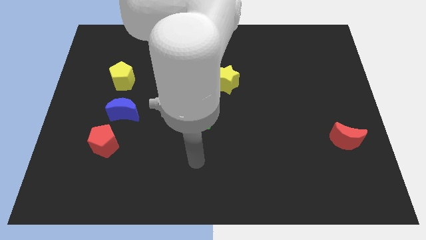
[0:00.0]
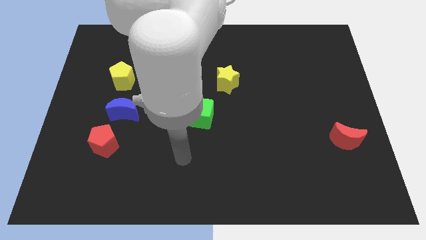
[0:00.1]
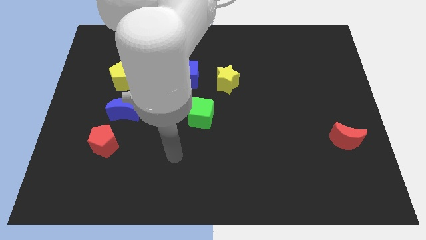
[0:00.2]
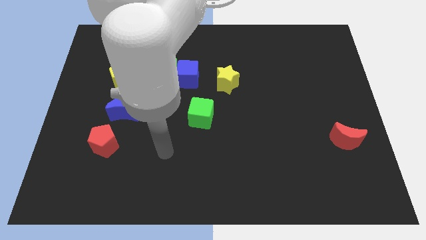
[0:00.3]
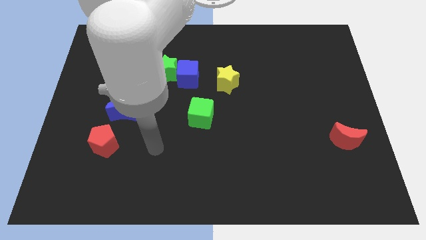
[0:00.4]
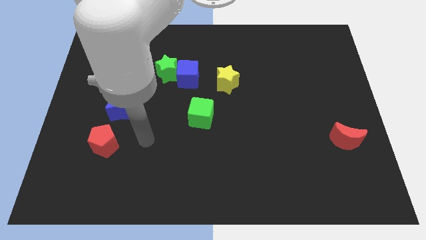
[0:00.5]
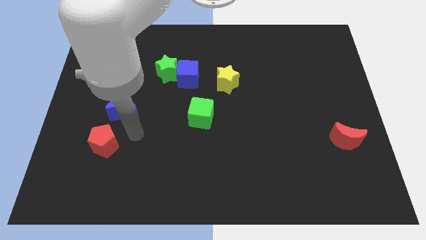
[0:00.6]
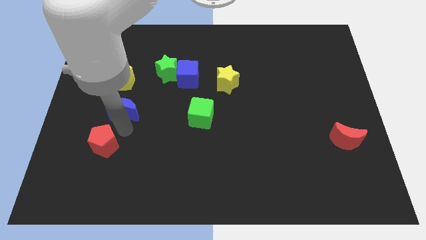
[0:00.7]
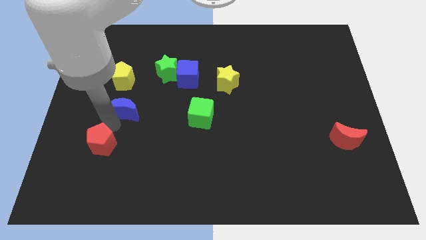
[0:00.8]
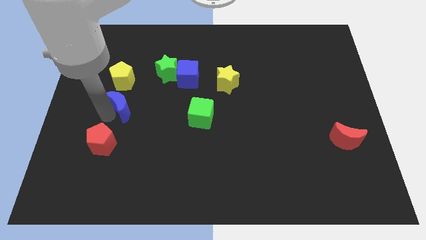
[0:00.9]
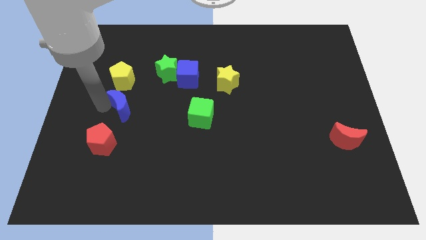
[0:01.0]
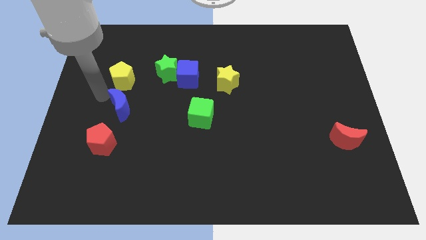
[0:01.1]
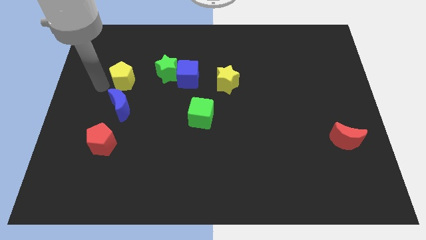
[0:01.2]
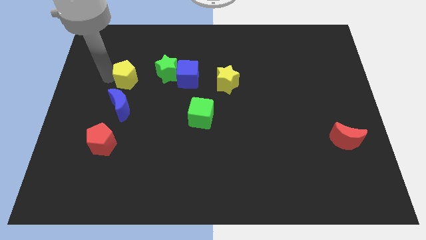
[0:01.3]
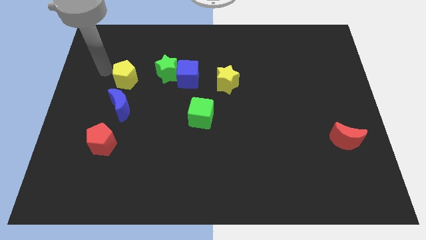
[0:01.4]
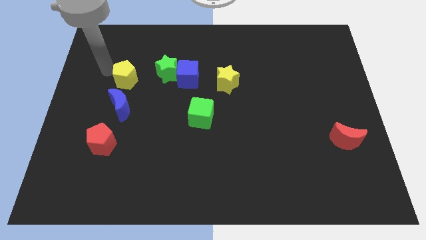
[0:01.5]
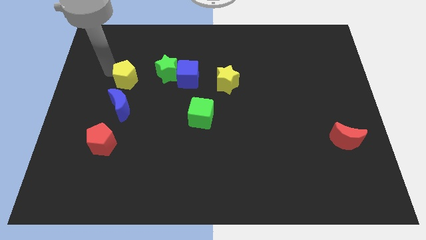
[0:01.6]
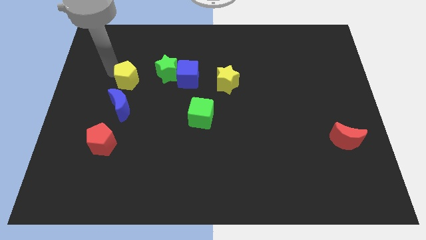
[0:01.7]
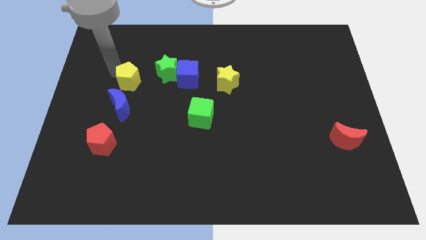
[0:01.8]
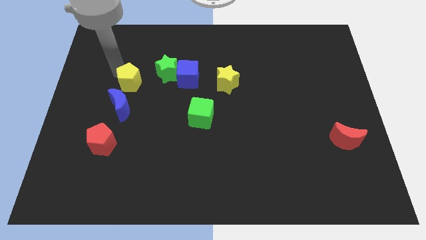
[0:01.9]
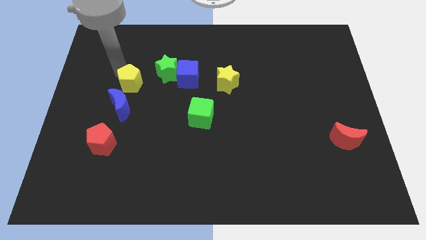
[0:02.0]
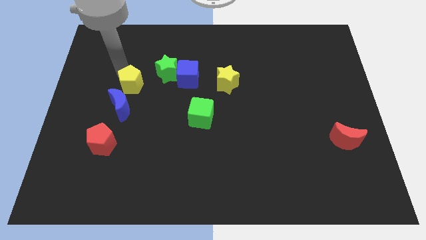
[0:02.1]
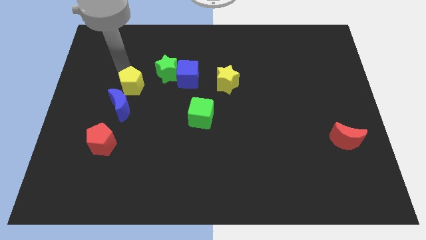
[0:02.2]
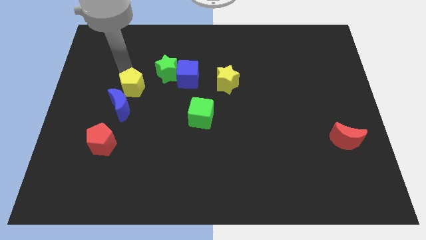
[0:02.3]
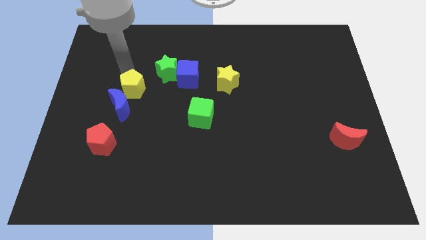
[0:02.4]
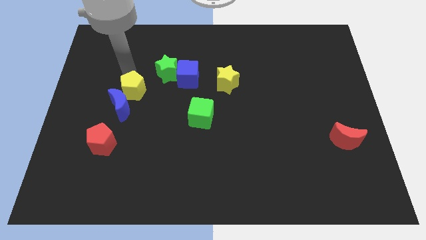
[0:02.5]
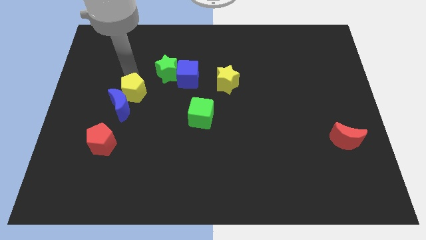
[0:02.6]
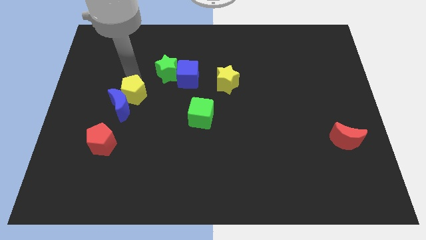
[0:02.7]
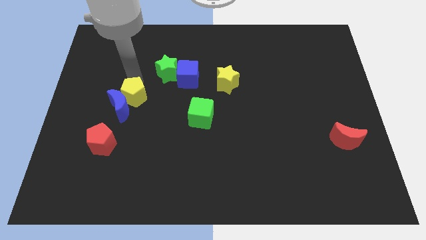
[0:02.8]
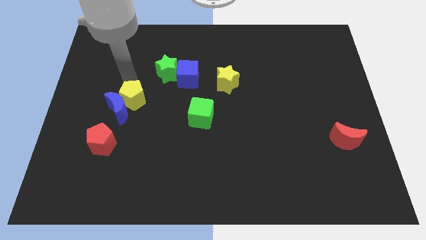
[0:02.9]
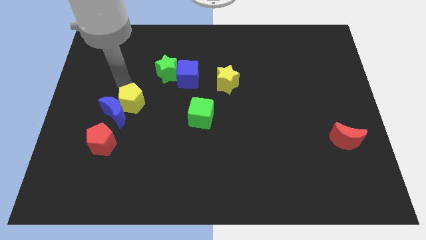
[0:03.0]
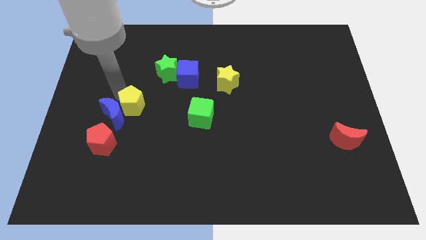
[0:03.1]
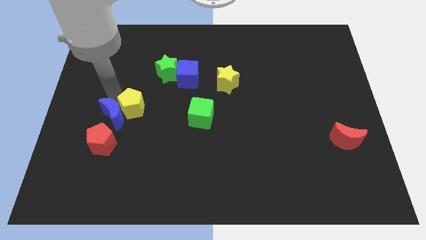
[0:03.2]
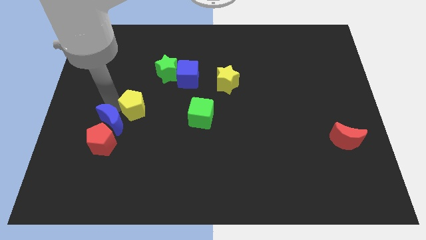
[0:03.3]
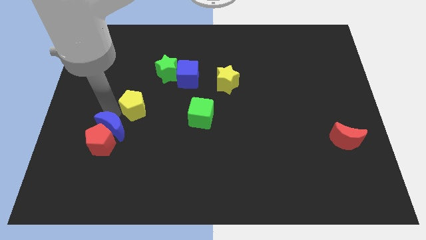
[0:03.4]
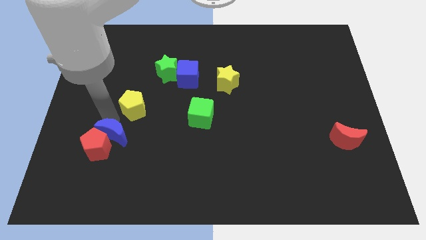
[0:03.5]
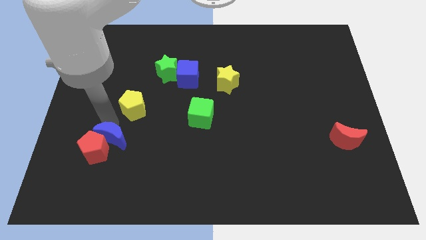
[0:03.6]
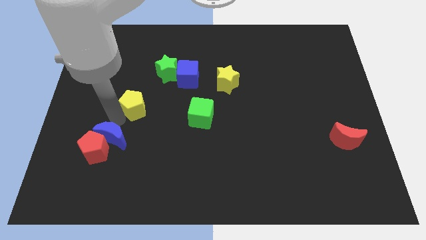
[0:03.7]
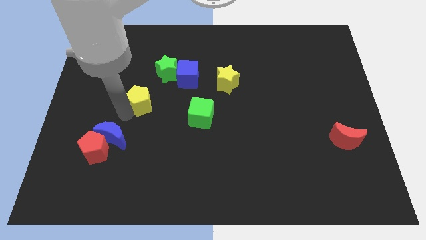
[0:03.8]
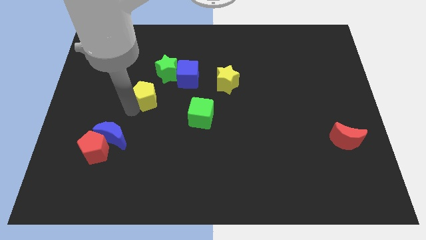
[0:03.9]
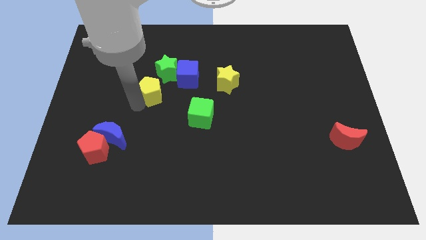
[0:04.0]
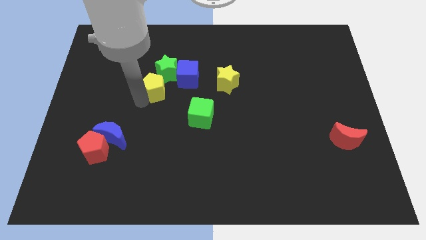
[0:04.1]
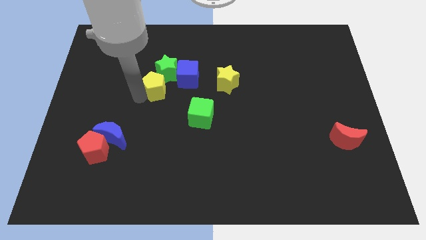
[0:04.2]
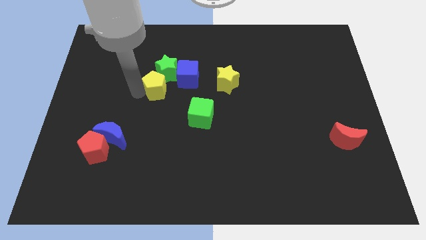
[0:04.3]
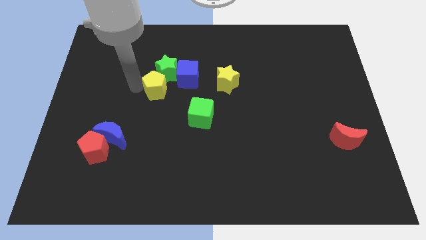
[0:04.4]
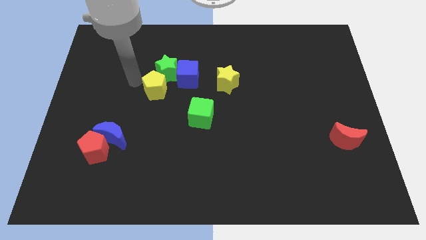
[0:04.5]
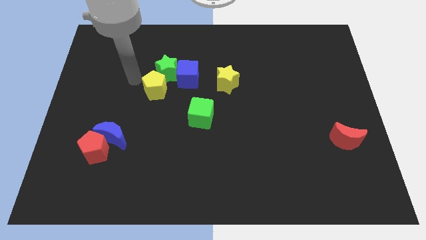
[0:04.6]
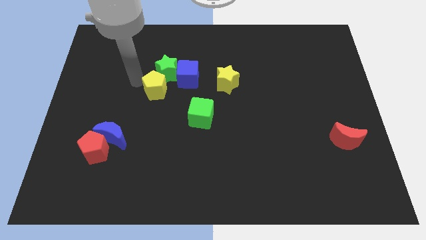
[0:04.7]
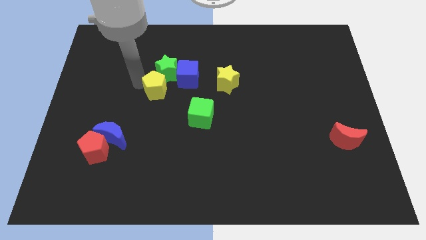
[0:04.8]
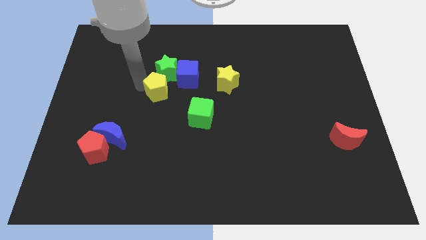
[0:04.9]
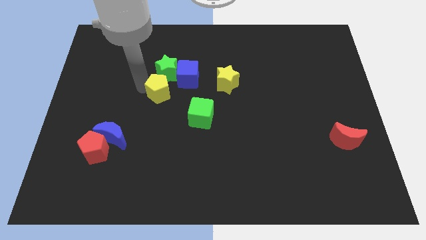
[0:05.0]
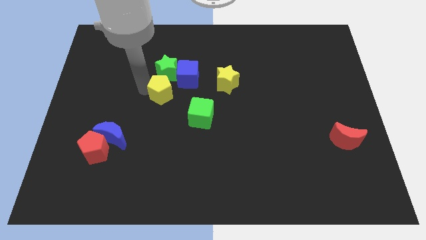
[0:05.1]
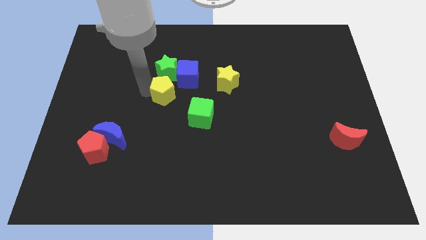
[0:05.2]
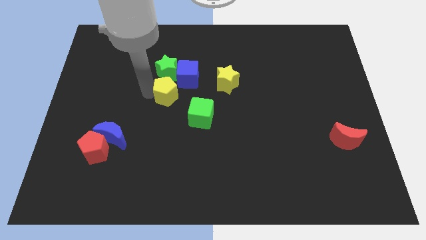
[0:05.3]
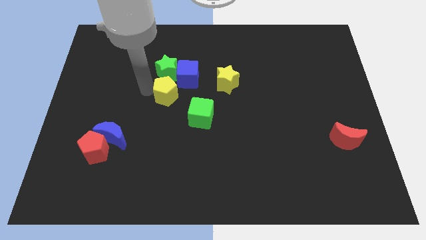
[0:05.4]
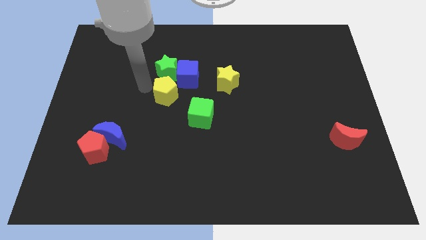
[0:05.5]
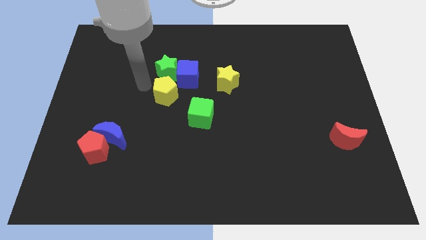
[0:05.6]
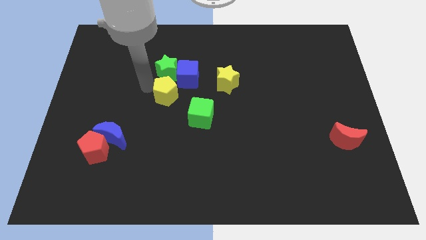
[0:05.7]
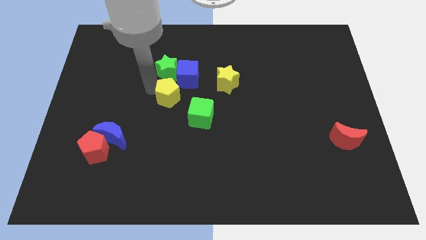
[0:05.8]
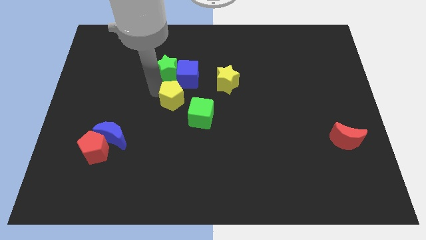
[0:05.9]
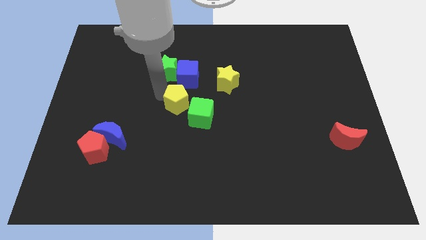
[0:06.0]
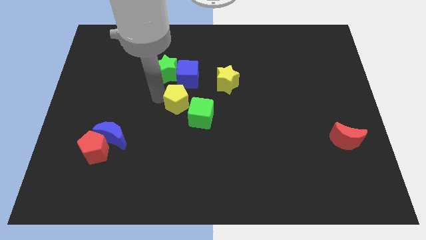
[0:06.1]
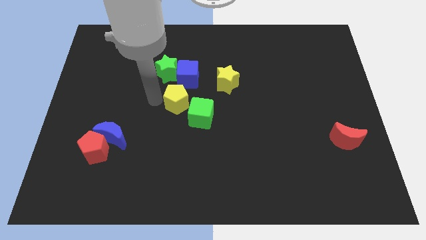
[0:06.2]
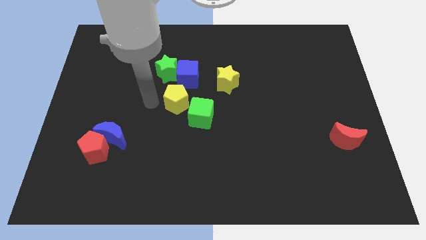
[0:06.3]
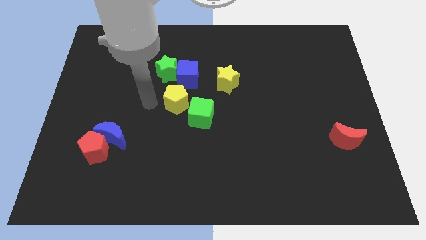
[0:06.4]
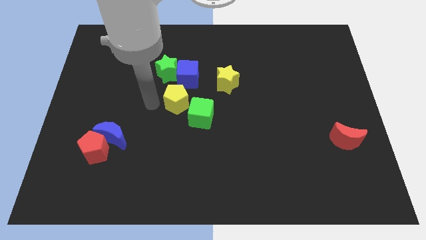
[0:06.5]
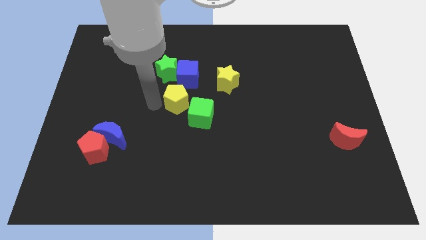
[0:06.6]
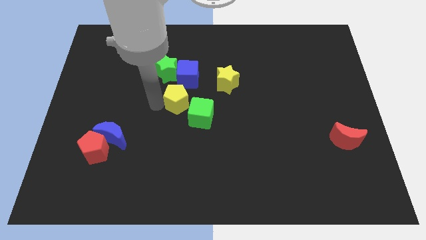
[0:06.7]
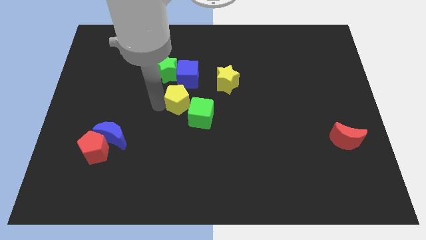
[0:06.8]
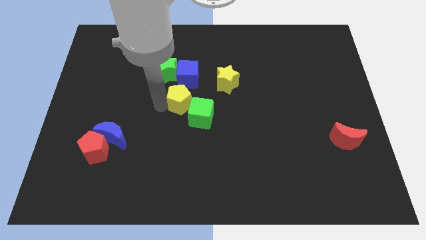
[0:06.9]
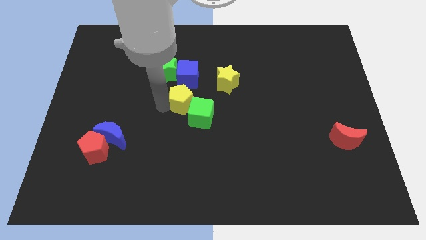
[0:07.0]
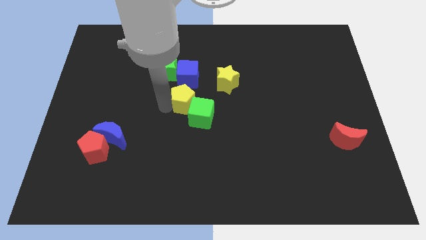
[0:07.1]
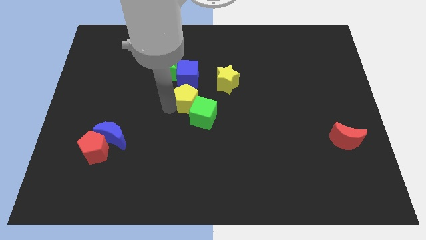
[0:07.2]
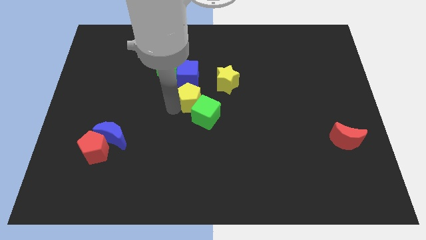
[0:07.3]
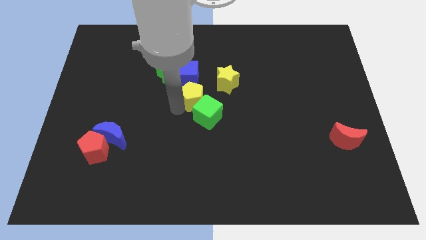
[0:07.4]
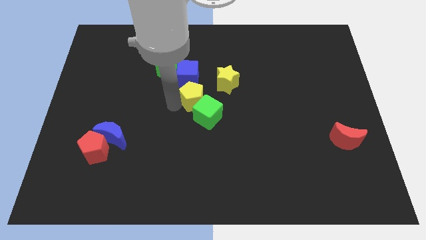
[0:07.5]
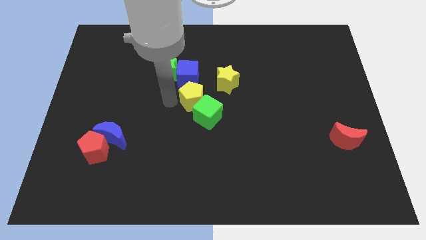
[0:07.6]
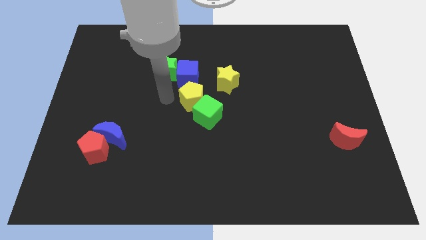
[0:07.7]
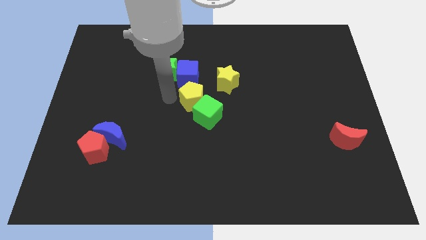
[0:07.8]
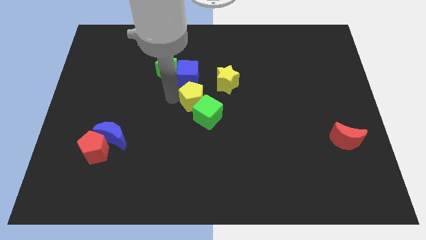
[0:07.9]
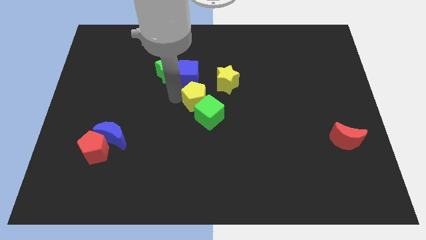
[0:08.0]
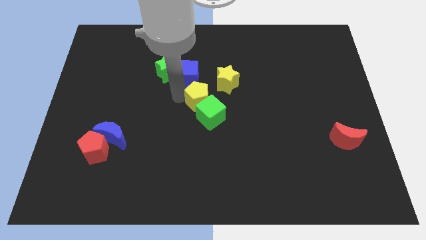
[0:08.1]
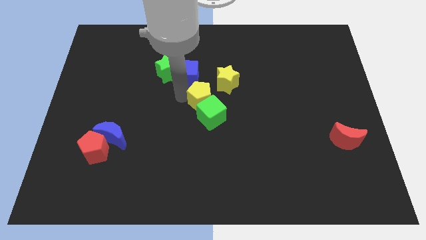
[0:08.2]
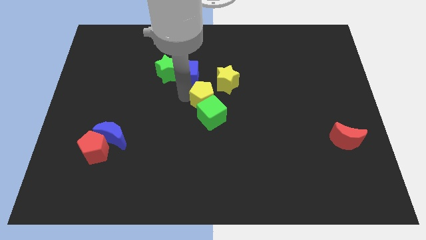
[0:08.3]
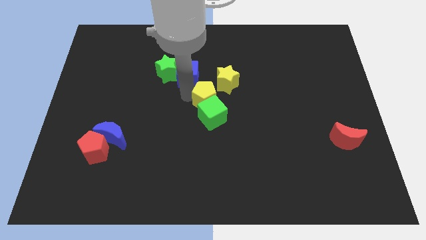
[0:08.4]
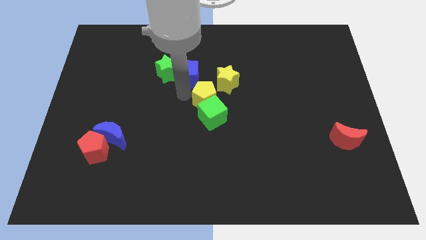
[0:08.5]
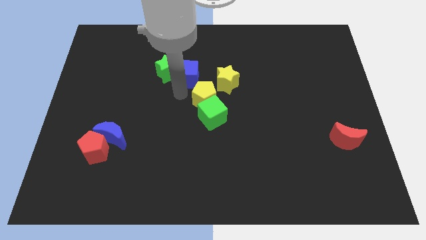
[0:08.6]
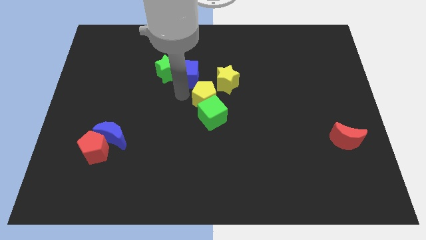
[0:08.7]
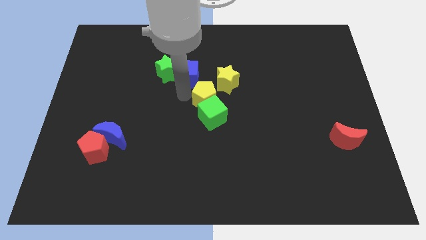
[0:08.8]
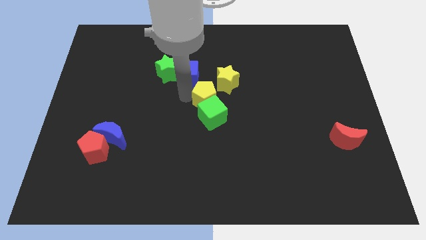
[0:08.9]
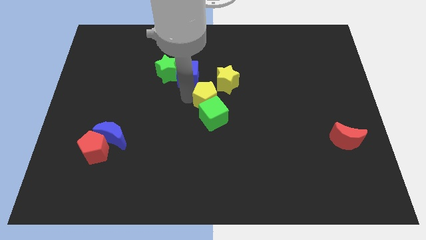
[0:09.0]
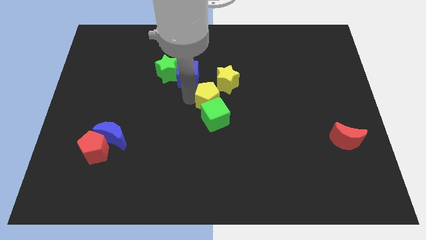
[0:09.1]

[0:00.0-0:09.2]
slide the yellow pentagon to the right
